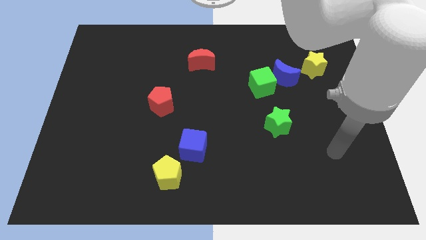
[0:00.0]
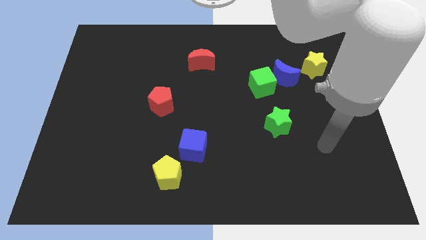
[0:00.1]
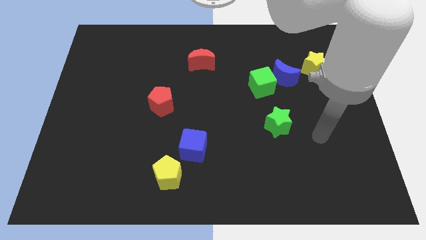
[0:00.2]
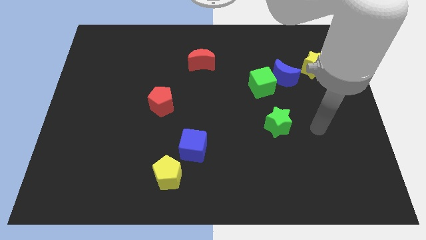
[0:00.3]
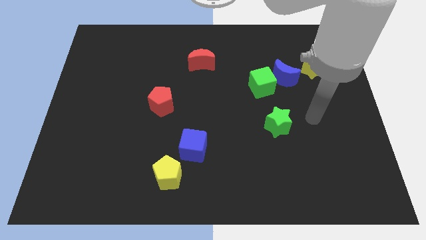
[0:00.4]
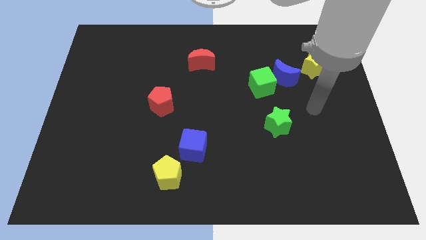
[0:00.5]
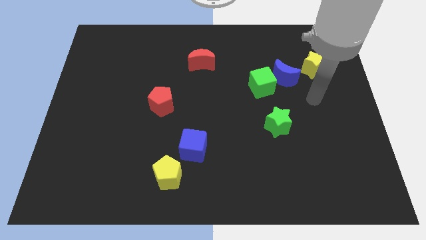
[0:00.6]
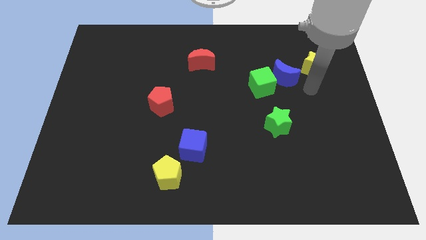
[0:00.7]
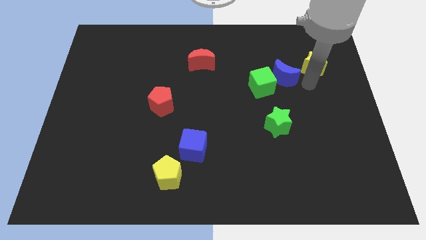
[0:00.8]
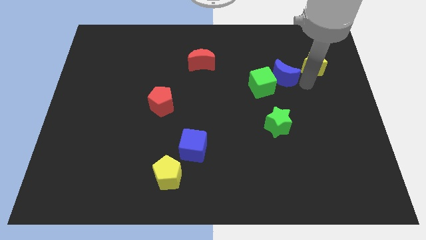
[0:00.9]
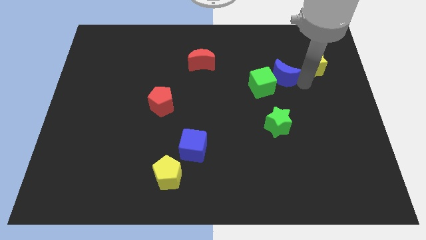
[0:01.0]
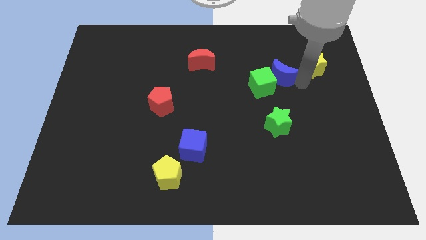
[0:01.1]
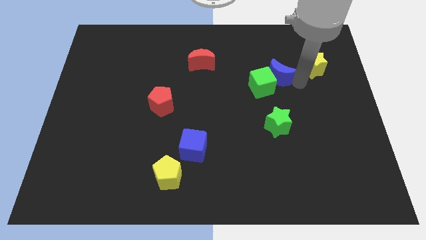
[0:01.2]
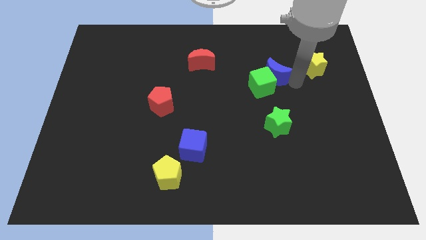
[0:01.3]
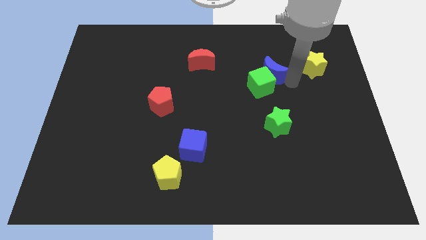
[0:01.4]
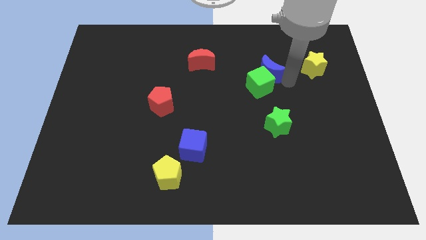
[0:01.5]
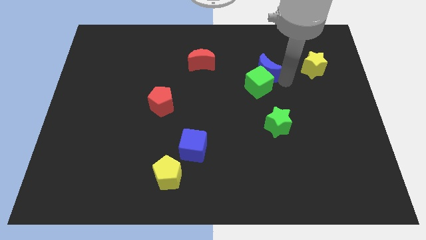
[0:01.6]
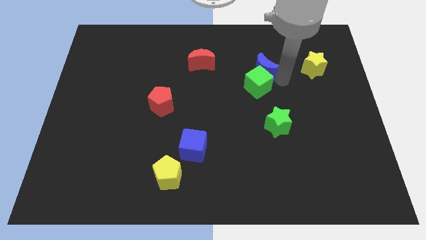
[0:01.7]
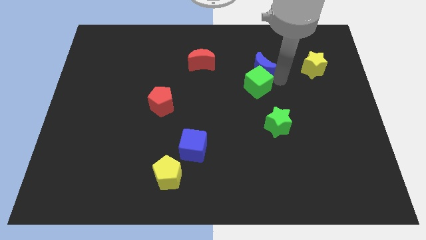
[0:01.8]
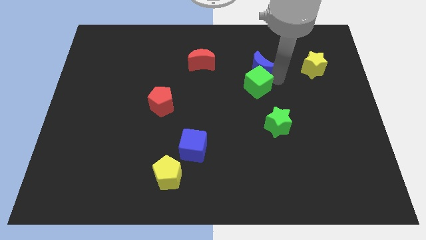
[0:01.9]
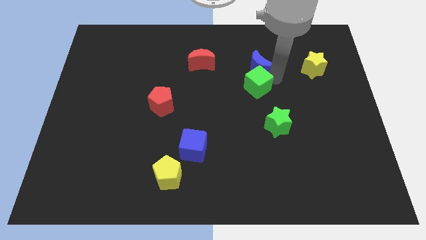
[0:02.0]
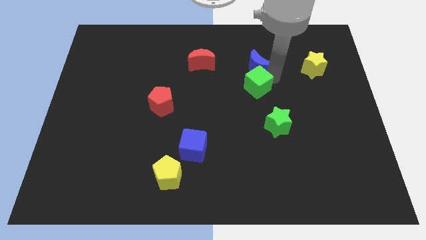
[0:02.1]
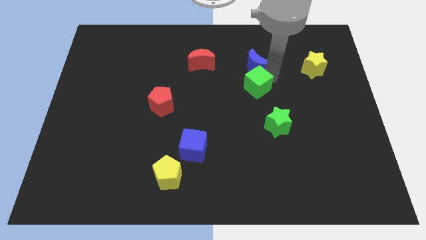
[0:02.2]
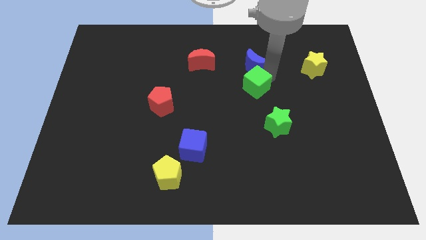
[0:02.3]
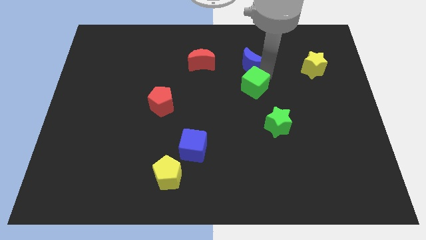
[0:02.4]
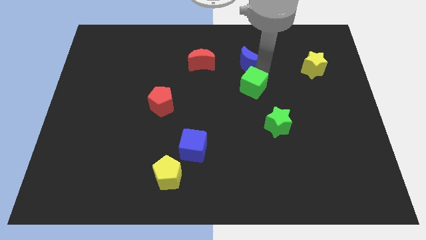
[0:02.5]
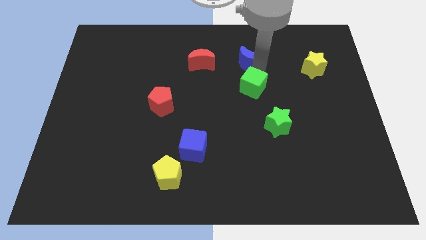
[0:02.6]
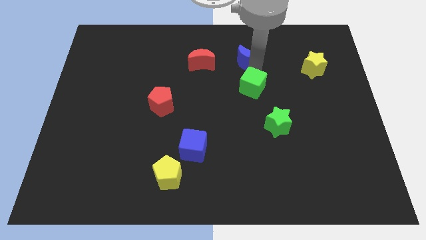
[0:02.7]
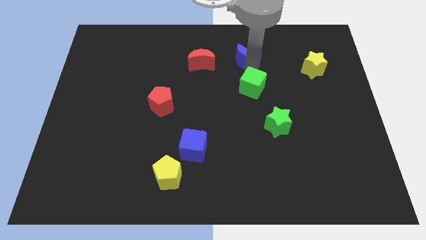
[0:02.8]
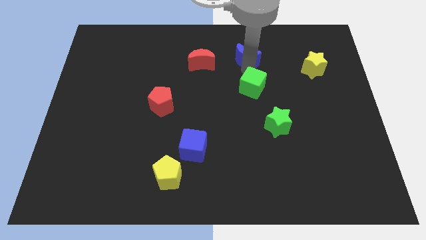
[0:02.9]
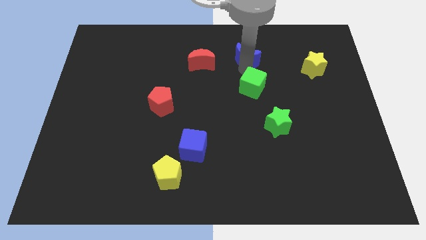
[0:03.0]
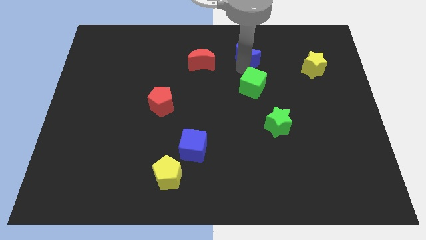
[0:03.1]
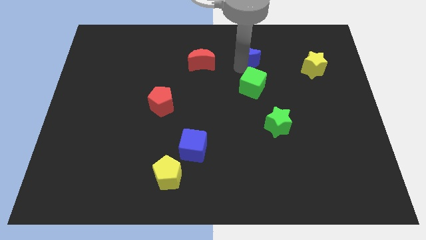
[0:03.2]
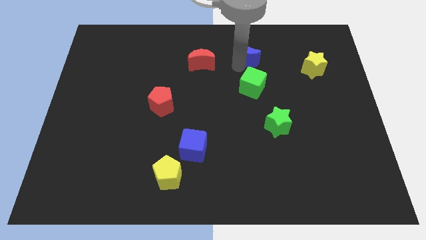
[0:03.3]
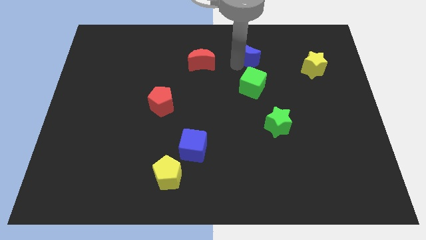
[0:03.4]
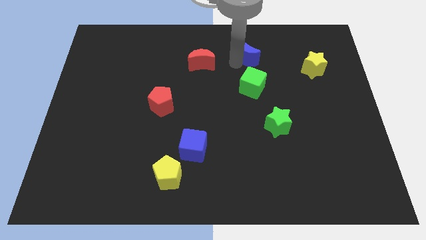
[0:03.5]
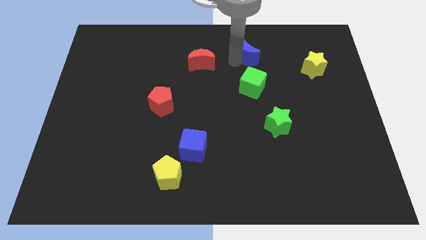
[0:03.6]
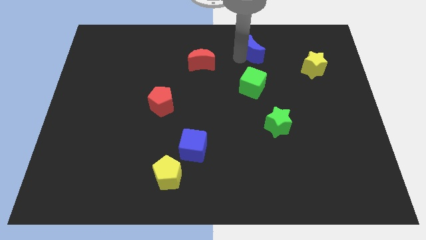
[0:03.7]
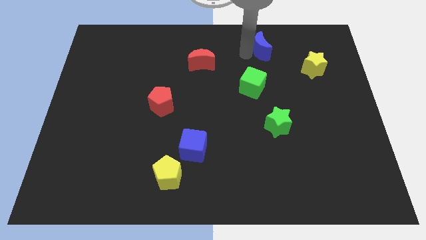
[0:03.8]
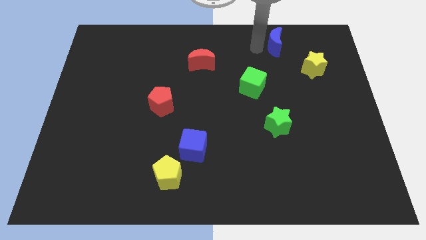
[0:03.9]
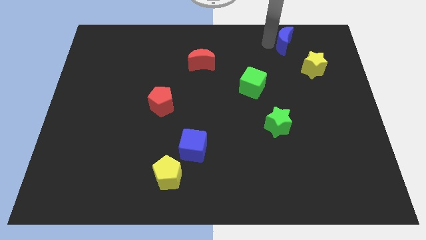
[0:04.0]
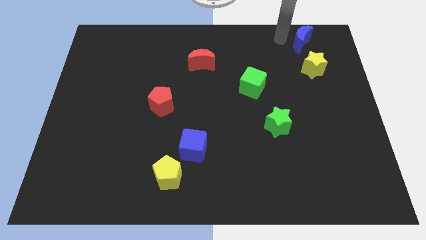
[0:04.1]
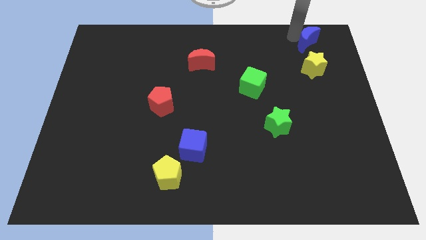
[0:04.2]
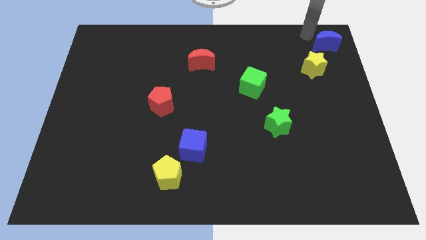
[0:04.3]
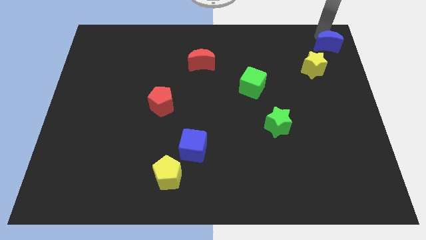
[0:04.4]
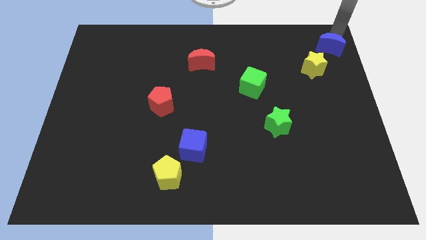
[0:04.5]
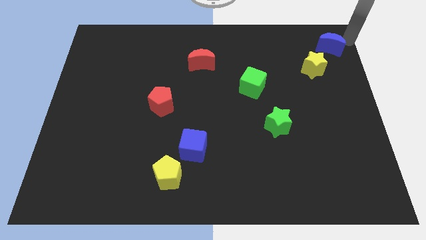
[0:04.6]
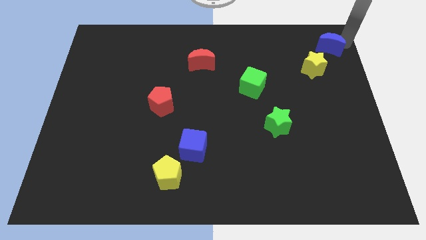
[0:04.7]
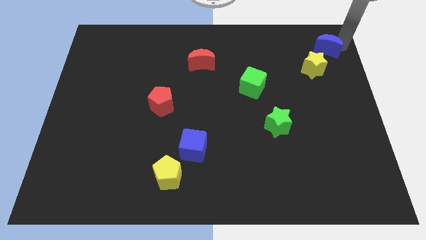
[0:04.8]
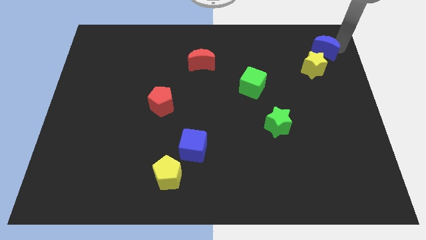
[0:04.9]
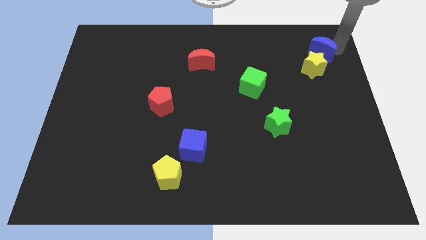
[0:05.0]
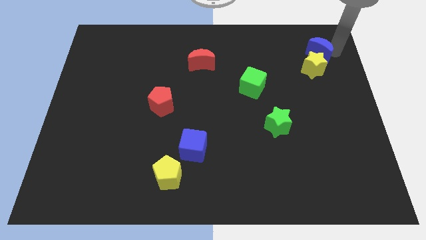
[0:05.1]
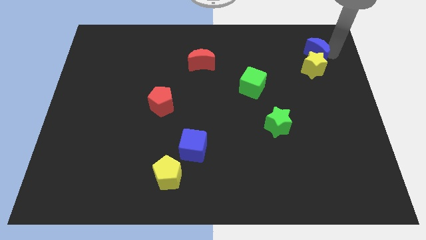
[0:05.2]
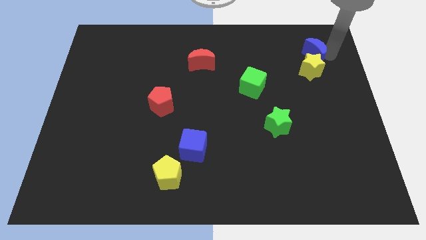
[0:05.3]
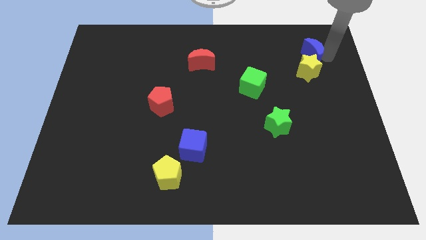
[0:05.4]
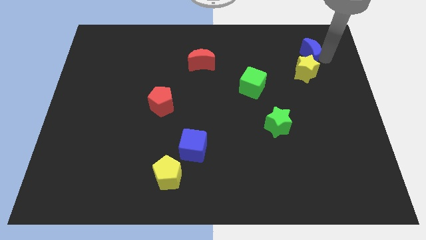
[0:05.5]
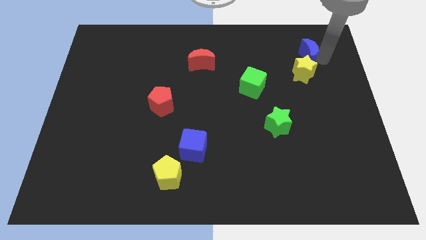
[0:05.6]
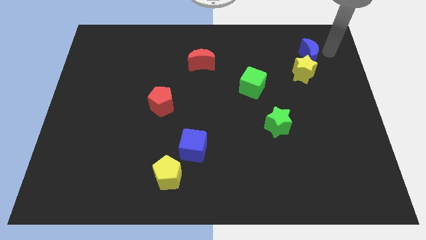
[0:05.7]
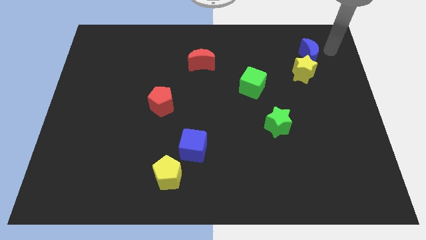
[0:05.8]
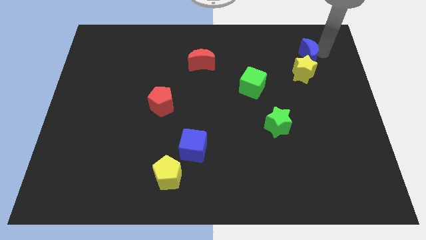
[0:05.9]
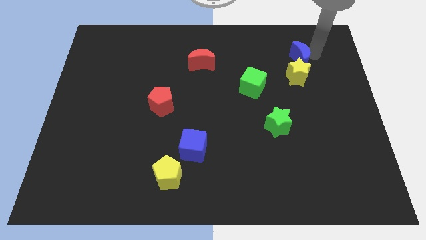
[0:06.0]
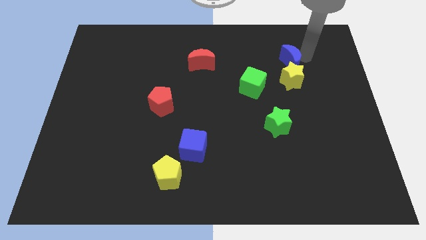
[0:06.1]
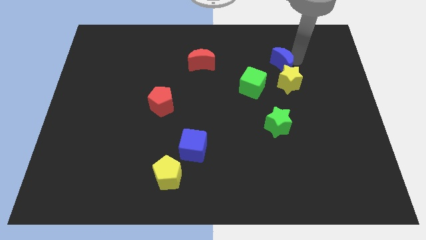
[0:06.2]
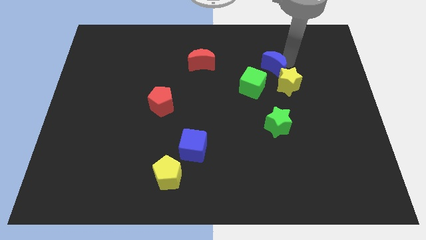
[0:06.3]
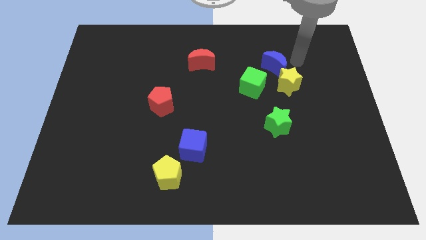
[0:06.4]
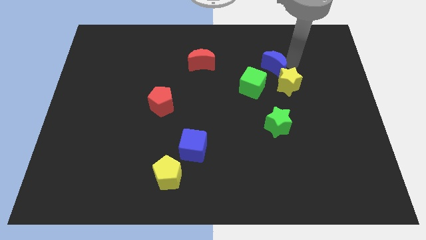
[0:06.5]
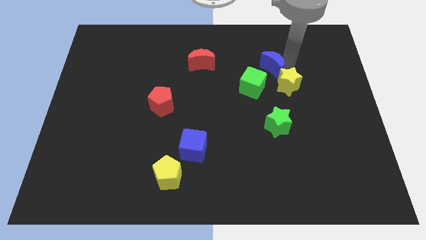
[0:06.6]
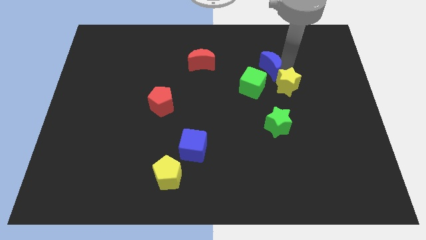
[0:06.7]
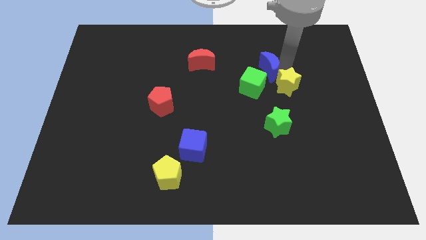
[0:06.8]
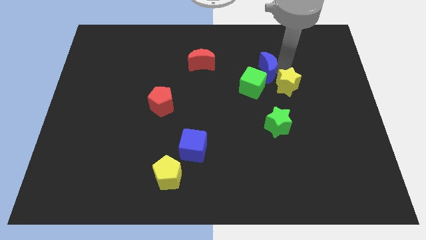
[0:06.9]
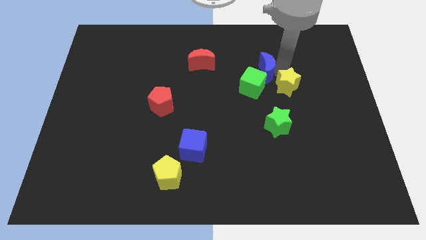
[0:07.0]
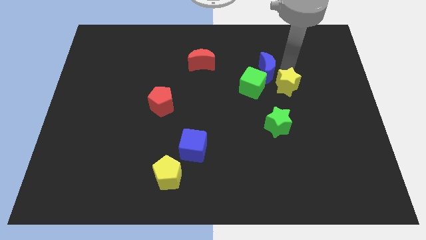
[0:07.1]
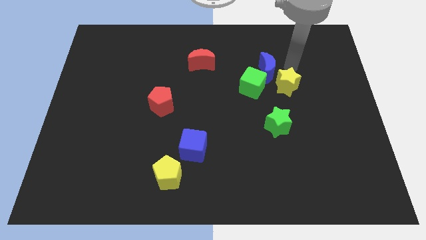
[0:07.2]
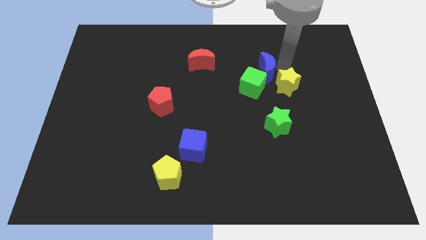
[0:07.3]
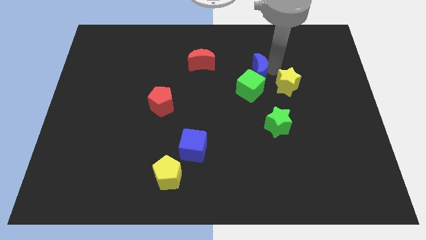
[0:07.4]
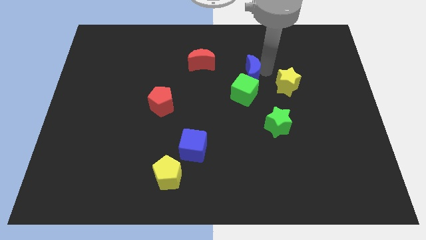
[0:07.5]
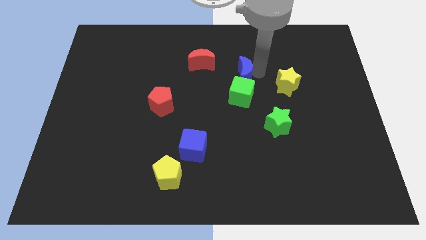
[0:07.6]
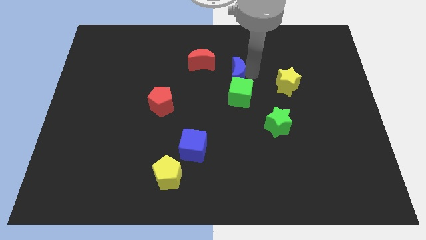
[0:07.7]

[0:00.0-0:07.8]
slide the blue moon diagonally down and to the right of the red moon
